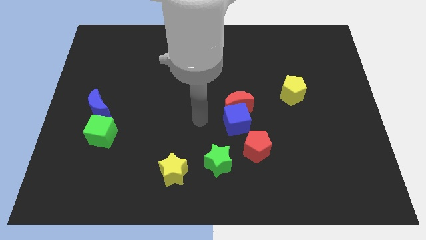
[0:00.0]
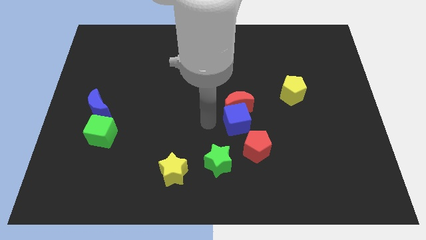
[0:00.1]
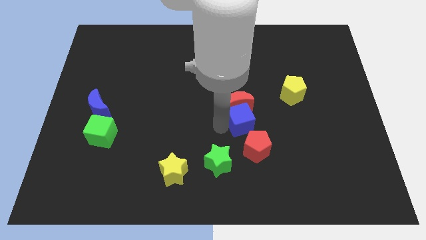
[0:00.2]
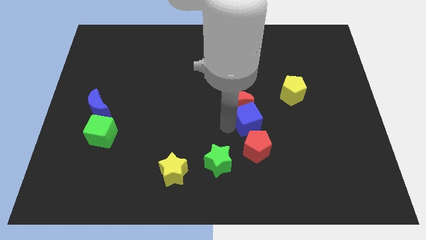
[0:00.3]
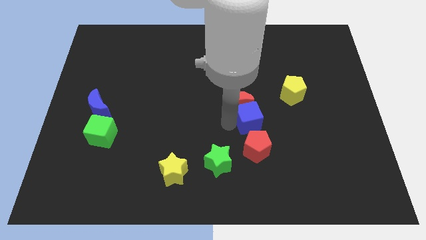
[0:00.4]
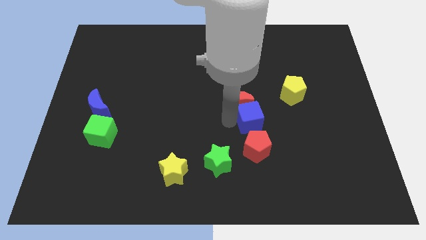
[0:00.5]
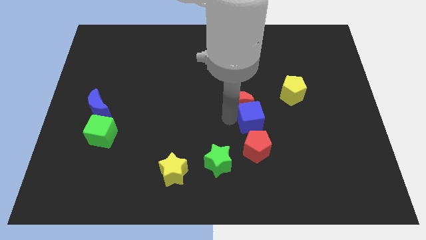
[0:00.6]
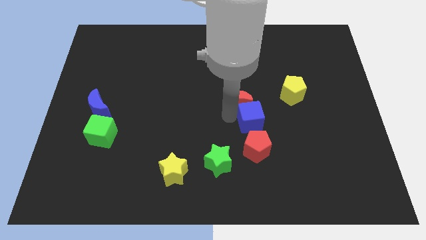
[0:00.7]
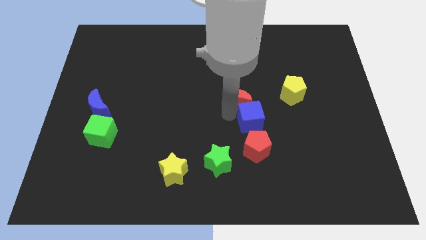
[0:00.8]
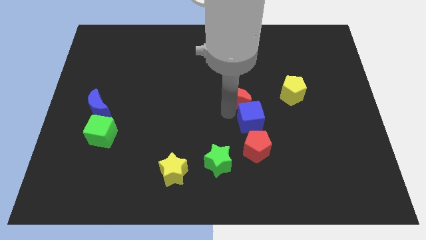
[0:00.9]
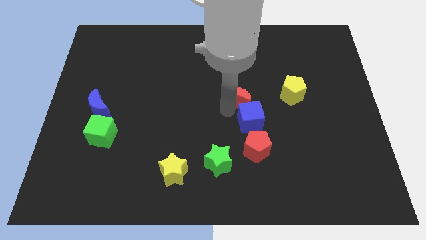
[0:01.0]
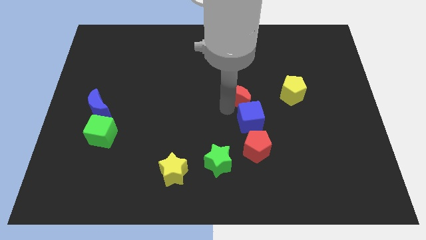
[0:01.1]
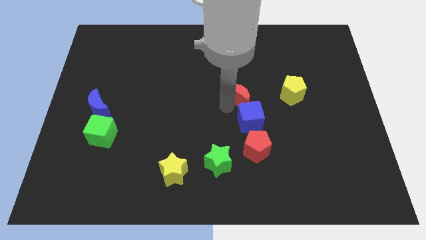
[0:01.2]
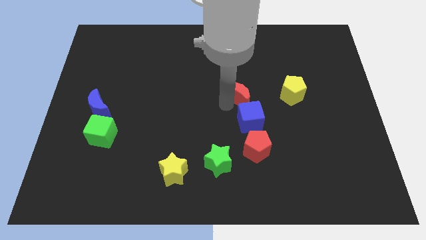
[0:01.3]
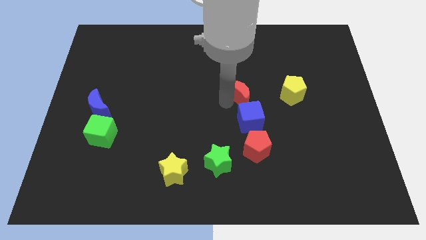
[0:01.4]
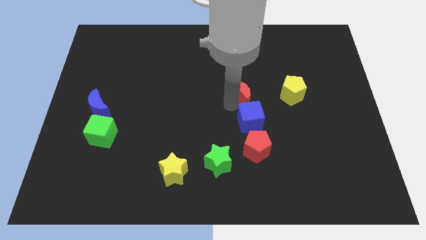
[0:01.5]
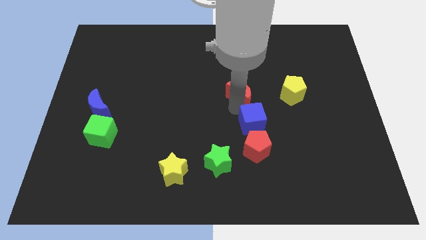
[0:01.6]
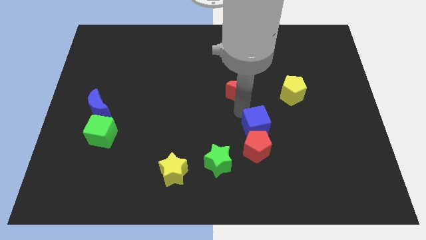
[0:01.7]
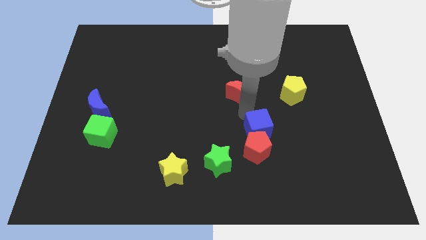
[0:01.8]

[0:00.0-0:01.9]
separate the red moon from the blue cube

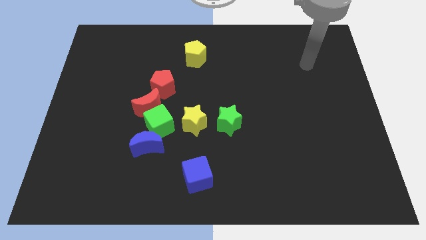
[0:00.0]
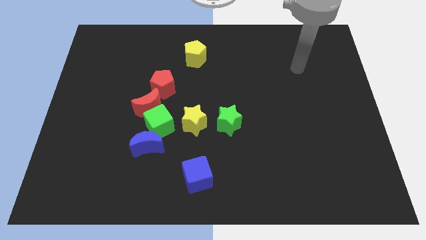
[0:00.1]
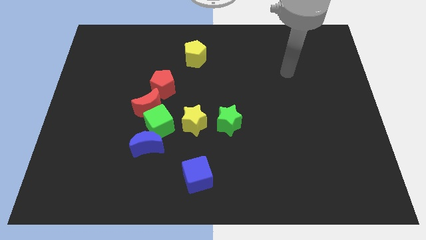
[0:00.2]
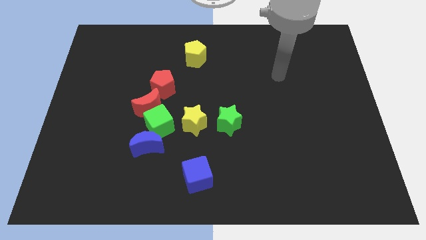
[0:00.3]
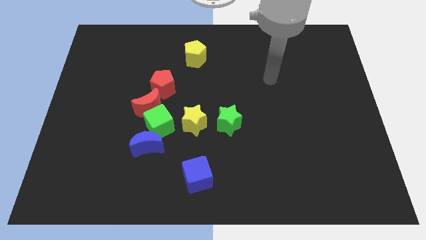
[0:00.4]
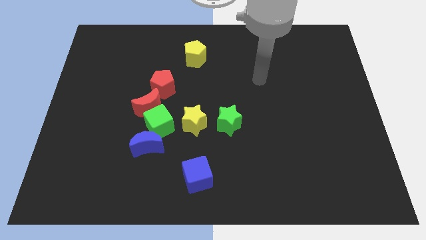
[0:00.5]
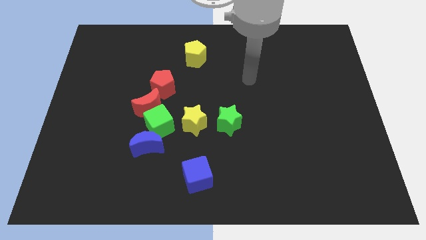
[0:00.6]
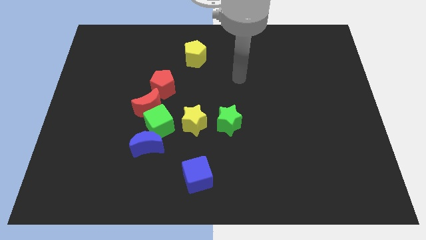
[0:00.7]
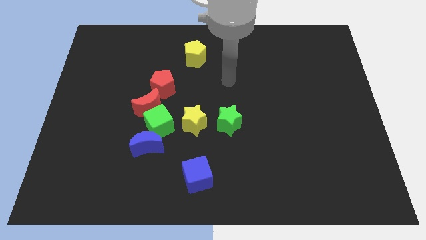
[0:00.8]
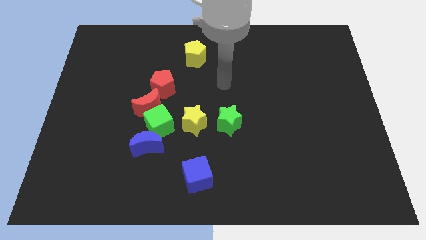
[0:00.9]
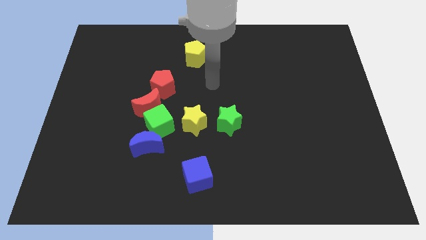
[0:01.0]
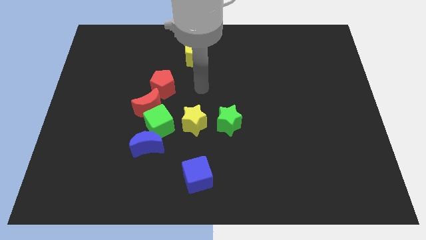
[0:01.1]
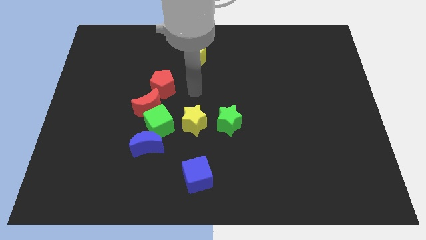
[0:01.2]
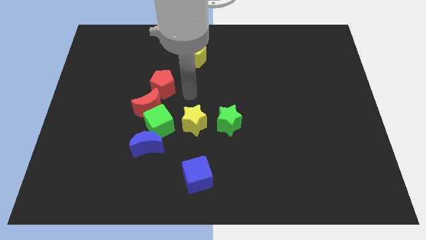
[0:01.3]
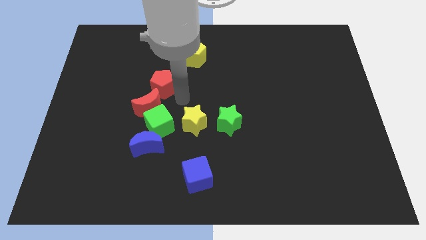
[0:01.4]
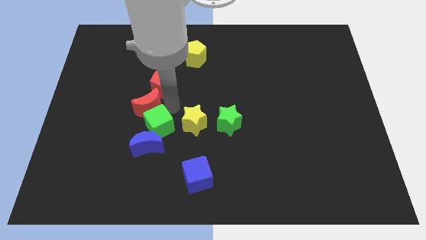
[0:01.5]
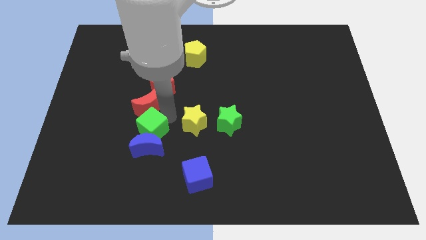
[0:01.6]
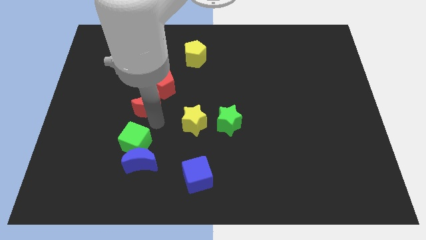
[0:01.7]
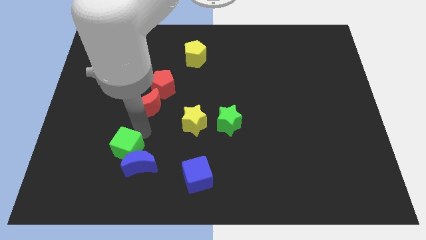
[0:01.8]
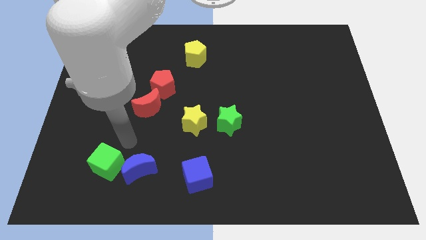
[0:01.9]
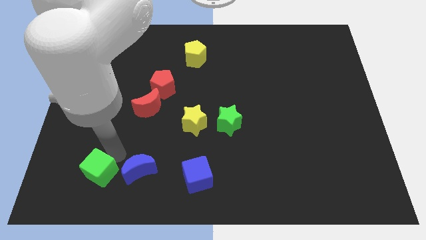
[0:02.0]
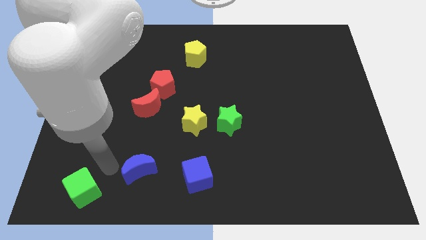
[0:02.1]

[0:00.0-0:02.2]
pull the blue moon apart from the green cube

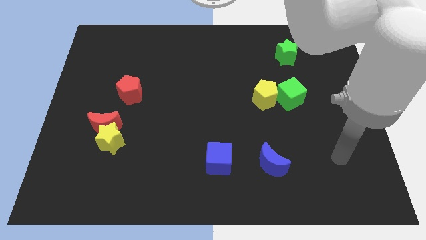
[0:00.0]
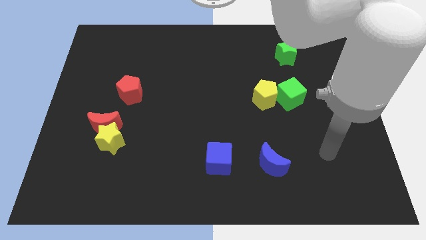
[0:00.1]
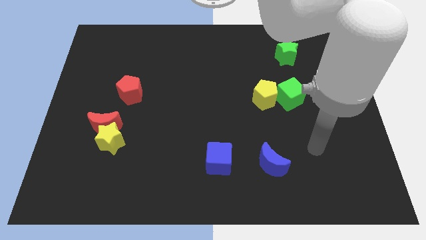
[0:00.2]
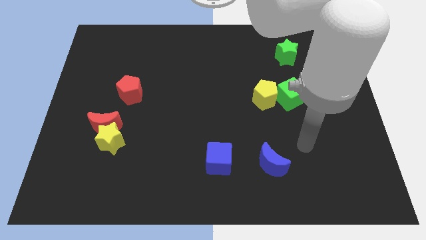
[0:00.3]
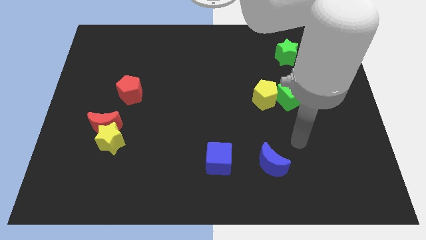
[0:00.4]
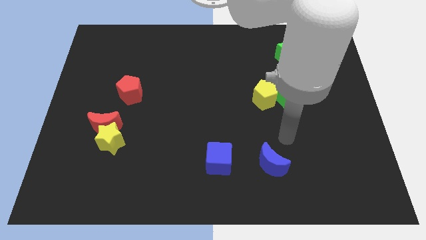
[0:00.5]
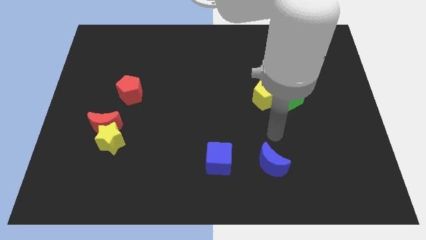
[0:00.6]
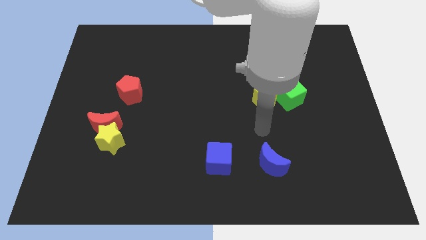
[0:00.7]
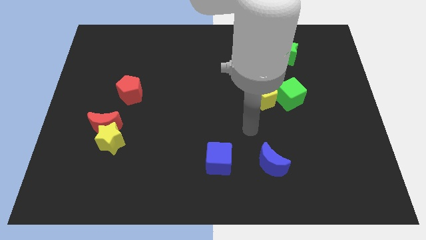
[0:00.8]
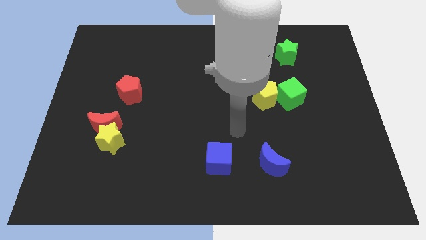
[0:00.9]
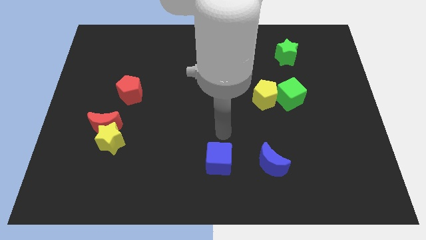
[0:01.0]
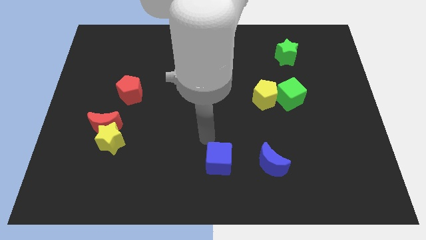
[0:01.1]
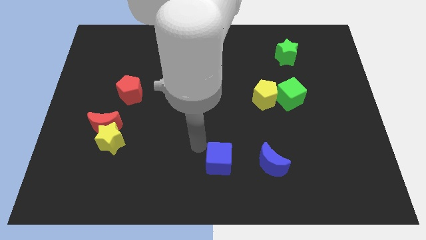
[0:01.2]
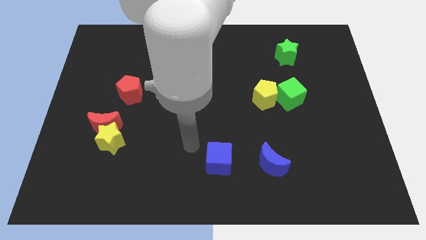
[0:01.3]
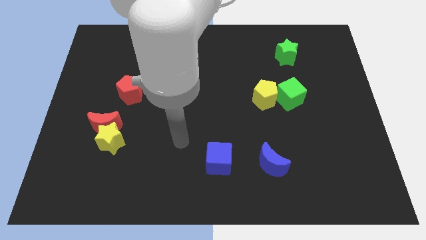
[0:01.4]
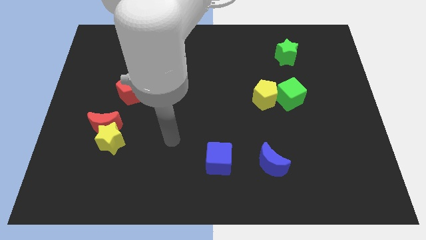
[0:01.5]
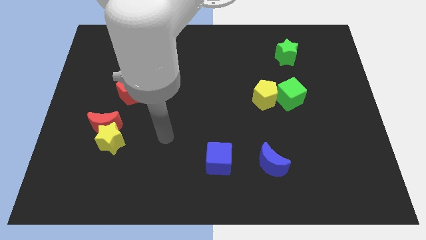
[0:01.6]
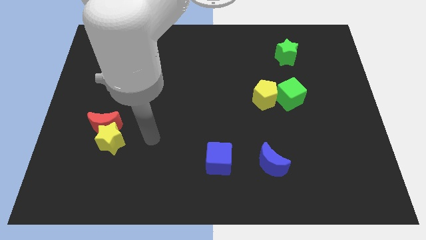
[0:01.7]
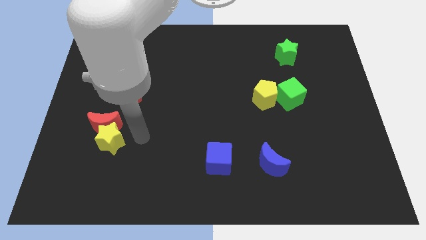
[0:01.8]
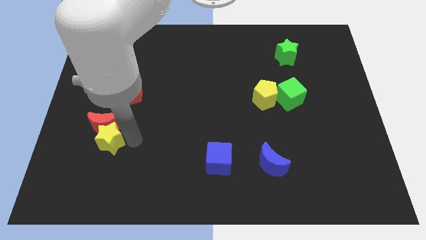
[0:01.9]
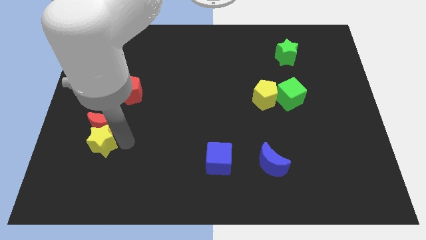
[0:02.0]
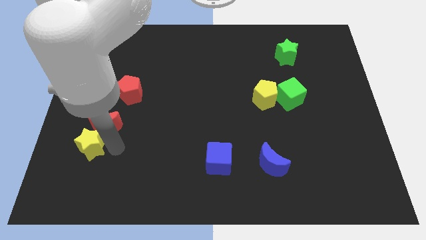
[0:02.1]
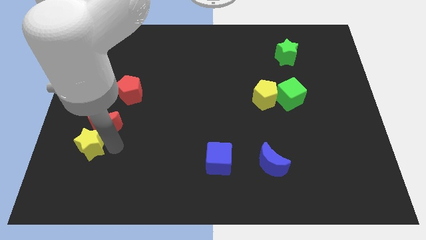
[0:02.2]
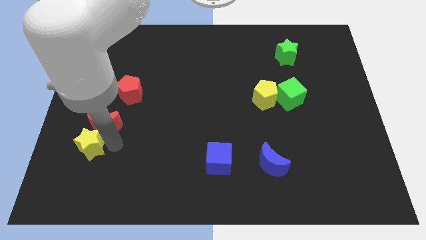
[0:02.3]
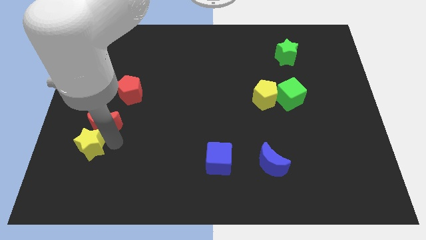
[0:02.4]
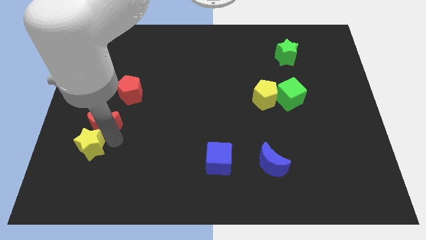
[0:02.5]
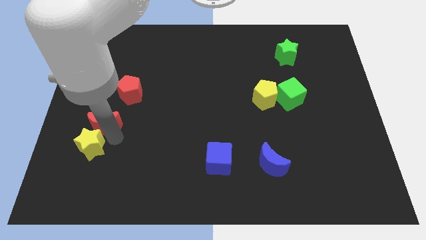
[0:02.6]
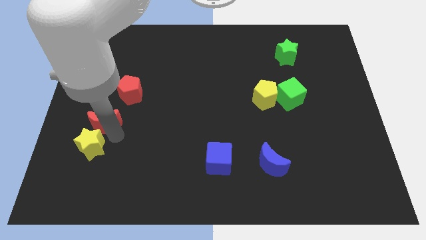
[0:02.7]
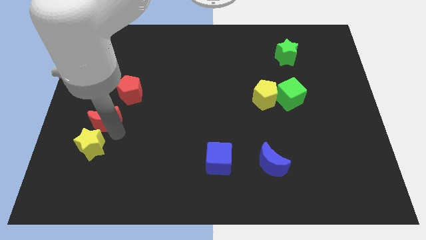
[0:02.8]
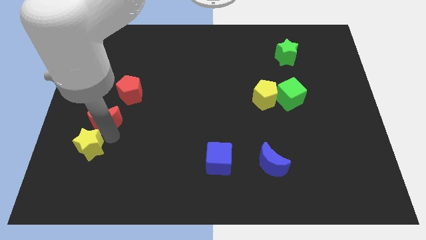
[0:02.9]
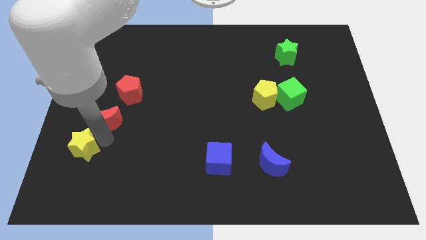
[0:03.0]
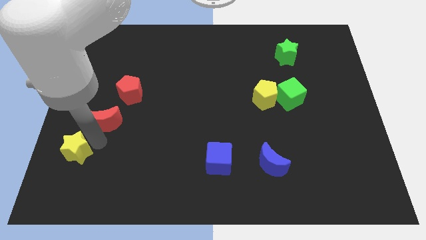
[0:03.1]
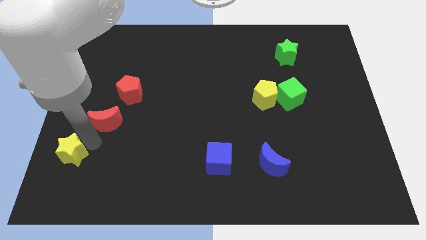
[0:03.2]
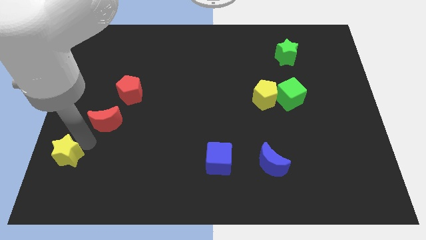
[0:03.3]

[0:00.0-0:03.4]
move the red moon away from the yellow star

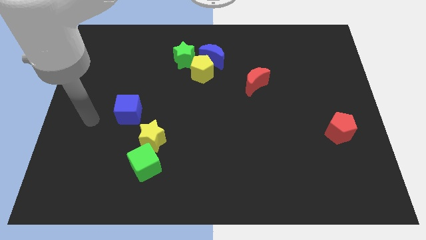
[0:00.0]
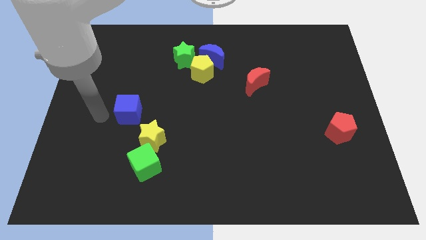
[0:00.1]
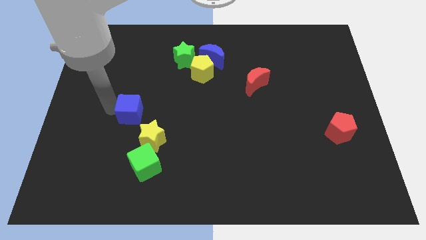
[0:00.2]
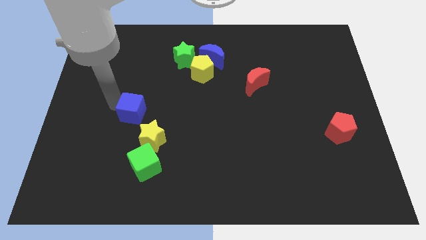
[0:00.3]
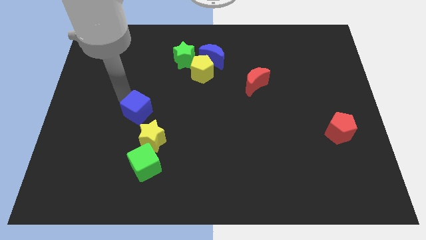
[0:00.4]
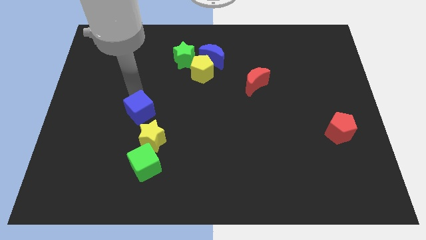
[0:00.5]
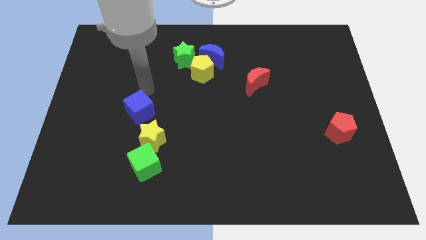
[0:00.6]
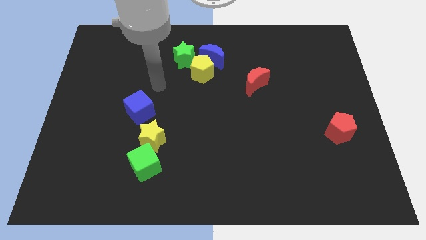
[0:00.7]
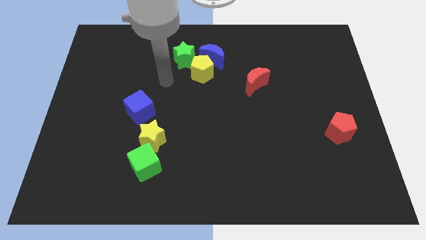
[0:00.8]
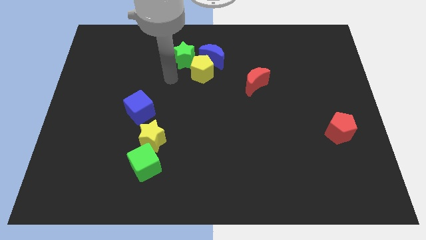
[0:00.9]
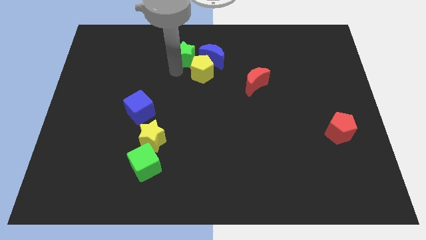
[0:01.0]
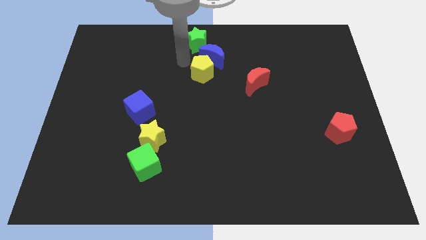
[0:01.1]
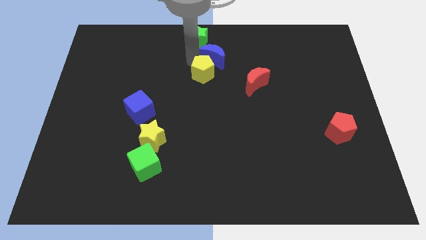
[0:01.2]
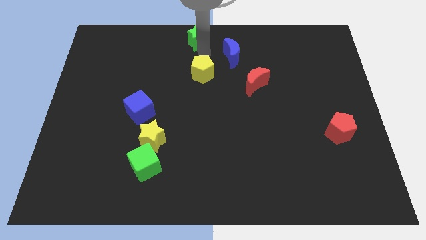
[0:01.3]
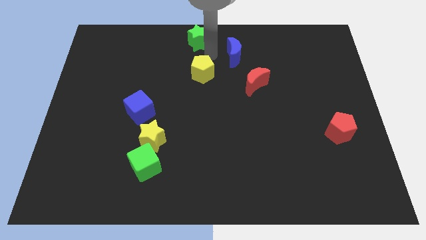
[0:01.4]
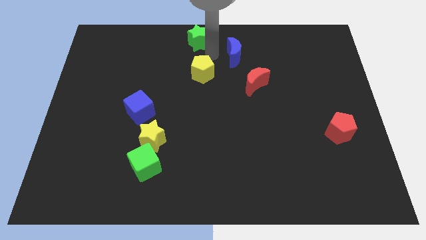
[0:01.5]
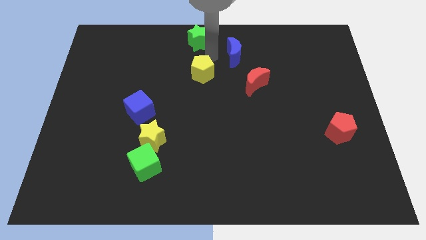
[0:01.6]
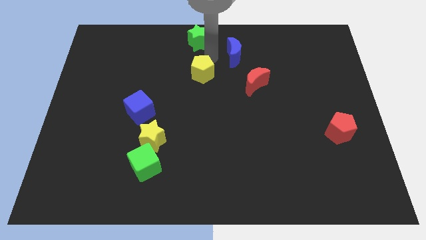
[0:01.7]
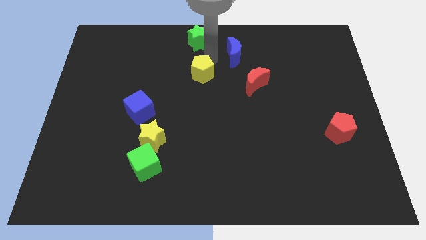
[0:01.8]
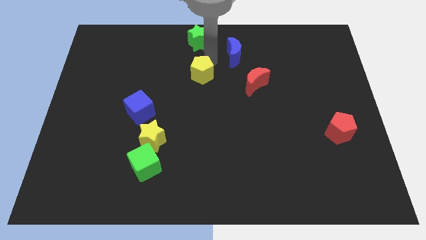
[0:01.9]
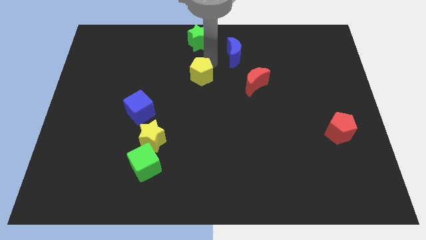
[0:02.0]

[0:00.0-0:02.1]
move the yellow pentagon away from the blue moon and green star
